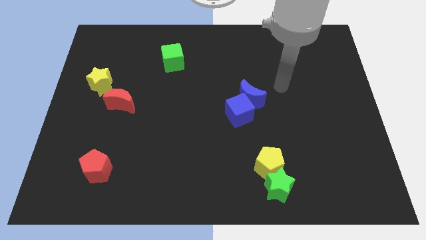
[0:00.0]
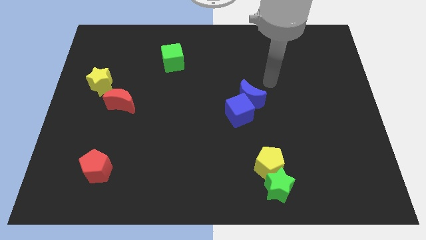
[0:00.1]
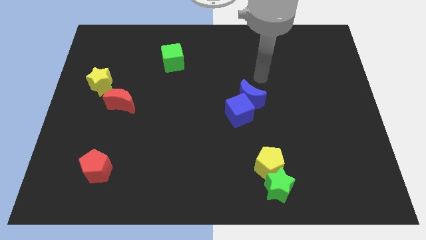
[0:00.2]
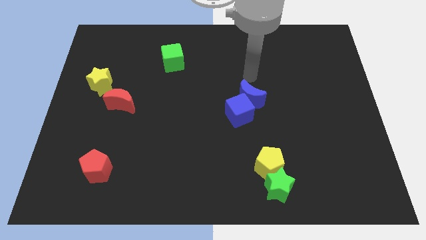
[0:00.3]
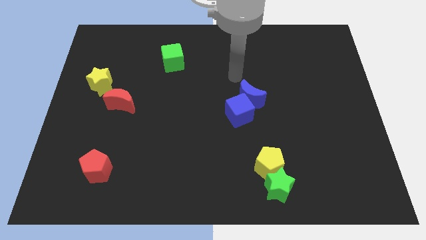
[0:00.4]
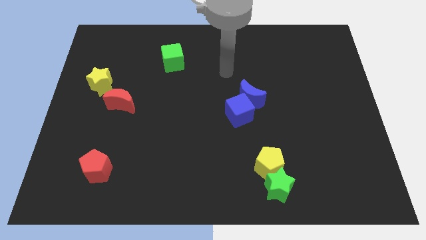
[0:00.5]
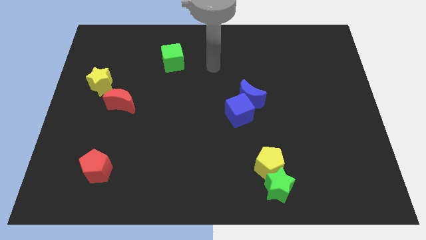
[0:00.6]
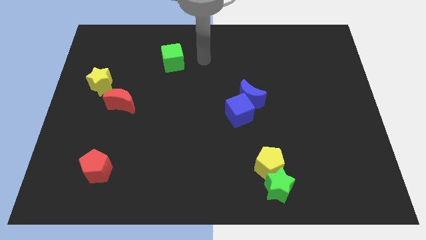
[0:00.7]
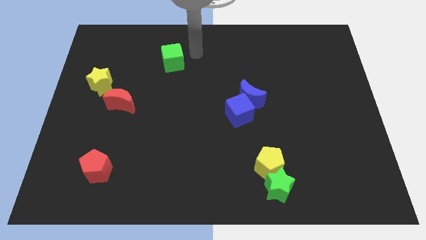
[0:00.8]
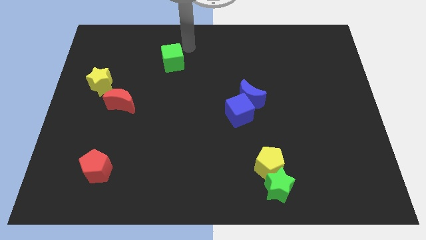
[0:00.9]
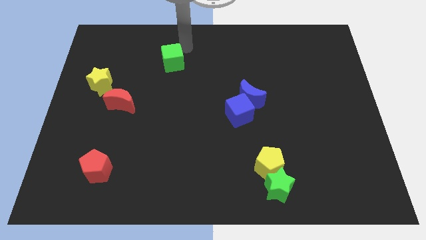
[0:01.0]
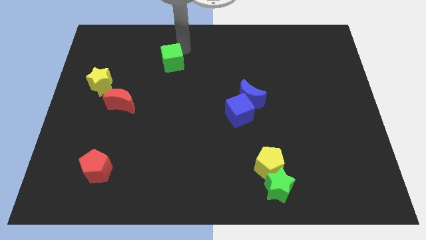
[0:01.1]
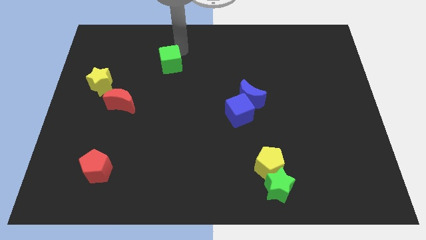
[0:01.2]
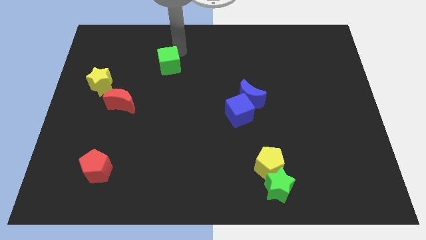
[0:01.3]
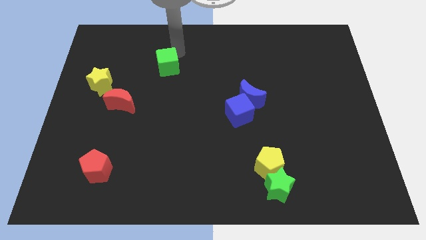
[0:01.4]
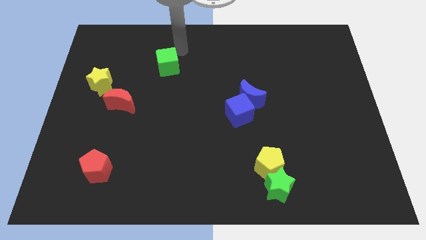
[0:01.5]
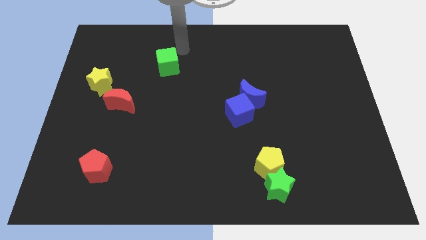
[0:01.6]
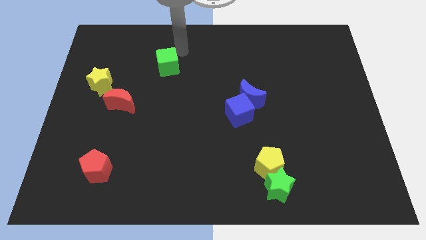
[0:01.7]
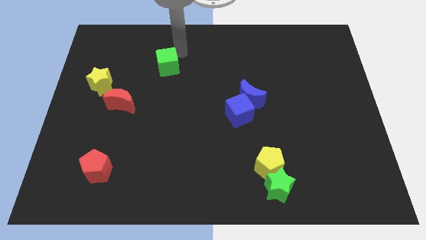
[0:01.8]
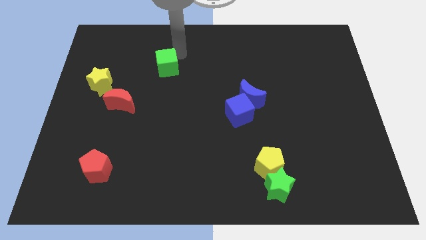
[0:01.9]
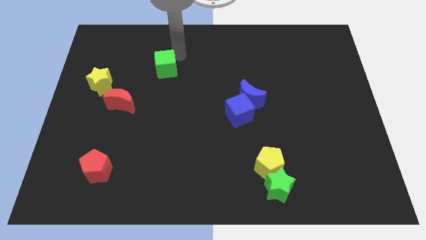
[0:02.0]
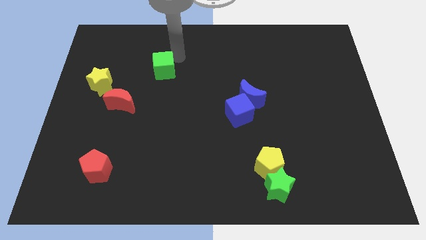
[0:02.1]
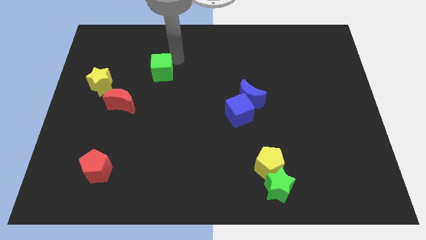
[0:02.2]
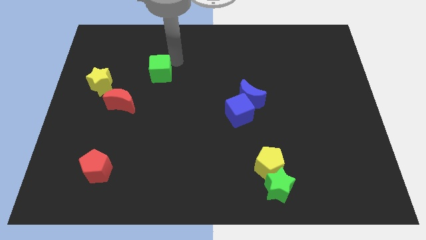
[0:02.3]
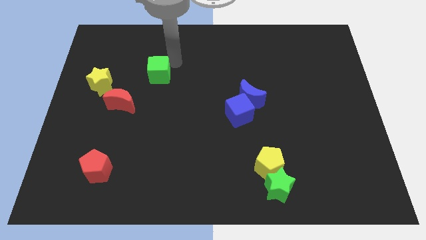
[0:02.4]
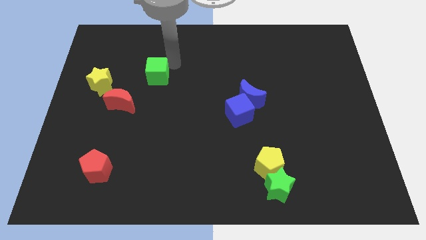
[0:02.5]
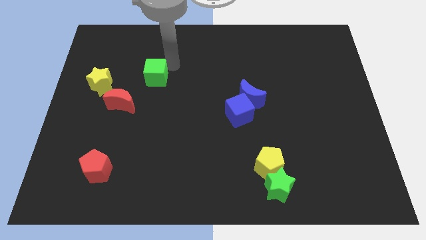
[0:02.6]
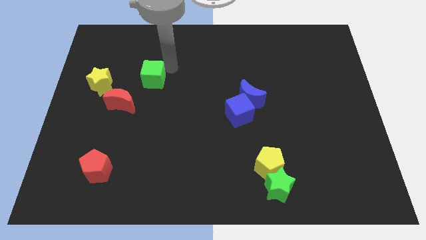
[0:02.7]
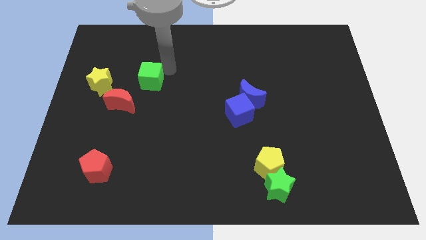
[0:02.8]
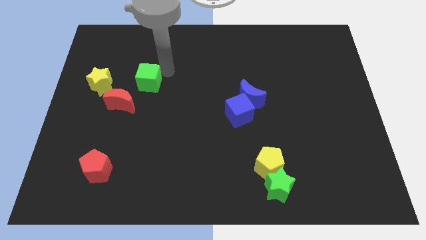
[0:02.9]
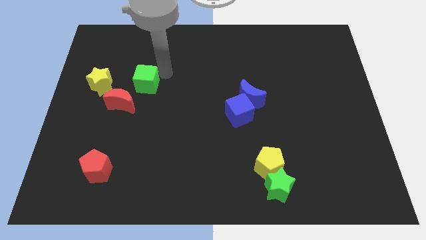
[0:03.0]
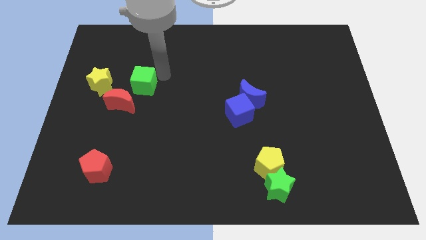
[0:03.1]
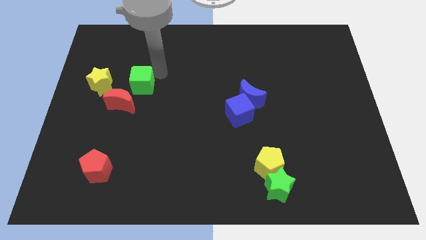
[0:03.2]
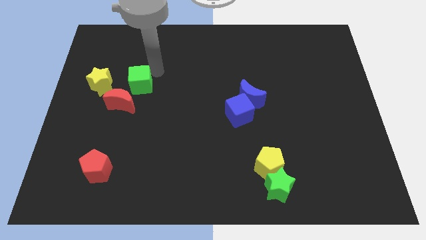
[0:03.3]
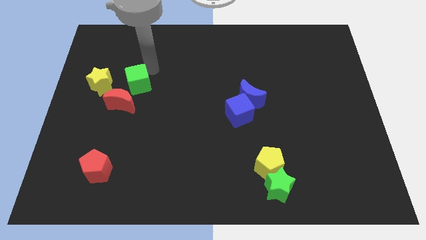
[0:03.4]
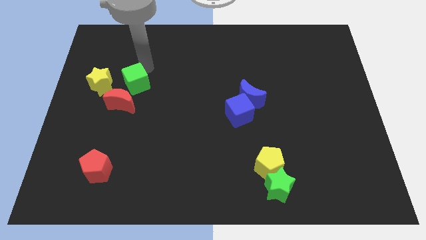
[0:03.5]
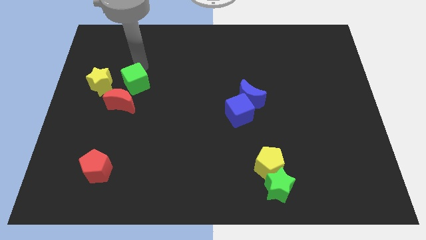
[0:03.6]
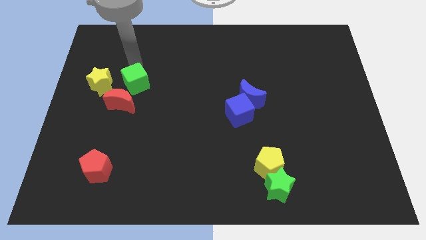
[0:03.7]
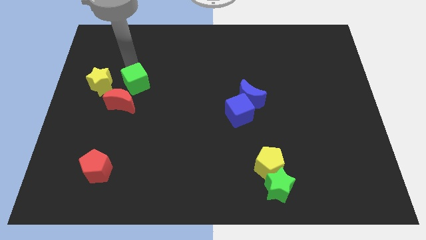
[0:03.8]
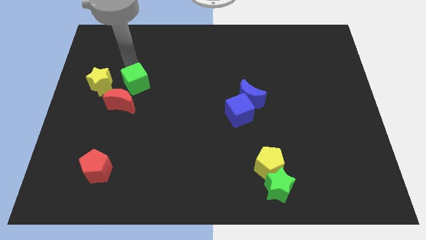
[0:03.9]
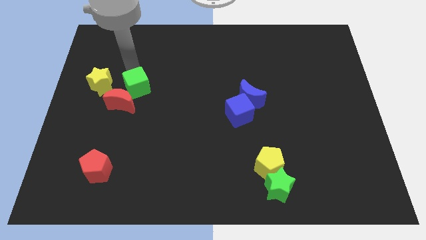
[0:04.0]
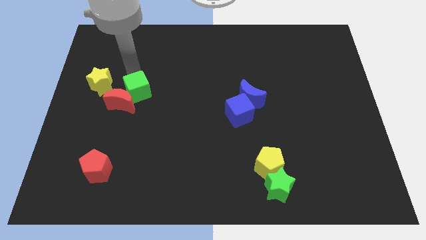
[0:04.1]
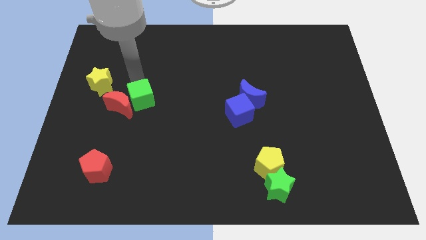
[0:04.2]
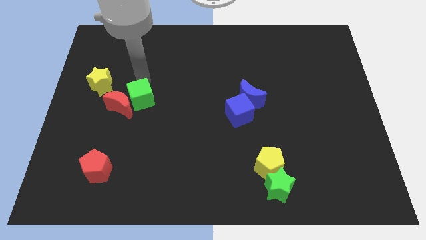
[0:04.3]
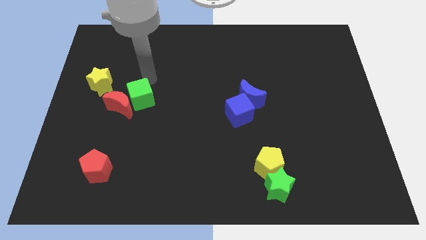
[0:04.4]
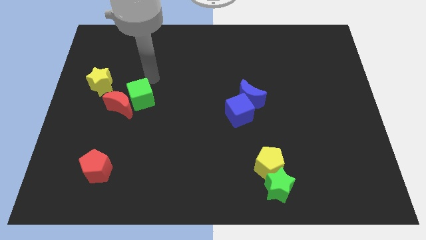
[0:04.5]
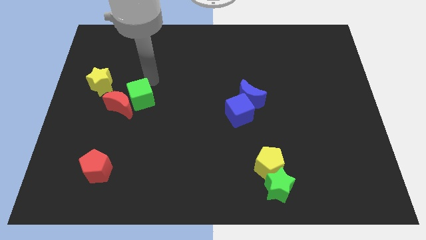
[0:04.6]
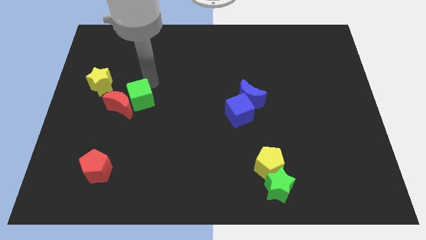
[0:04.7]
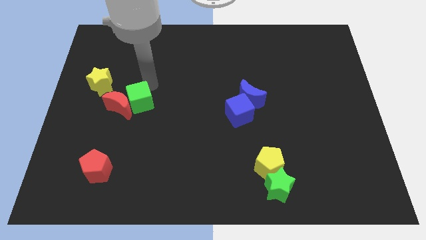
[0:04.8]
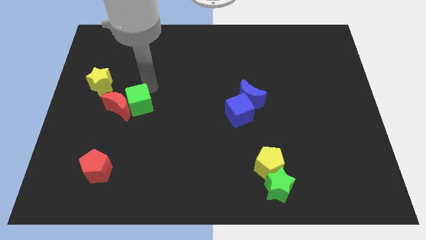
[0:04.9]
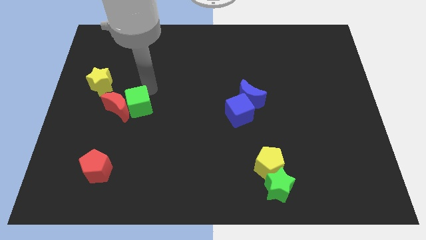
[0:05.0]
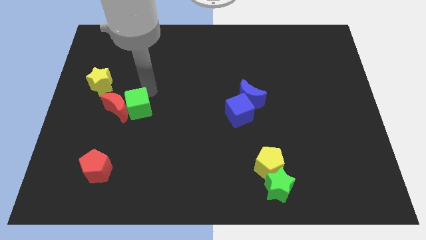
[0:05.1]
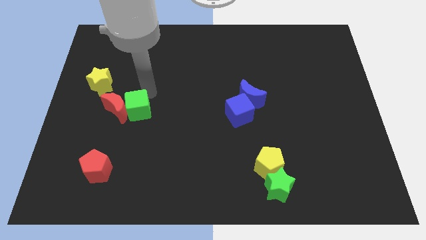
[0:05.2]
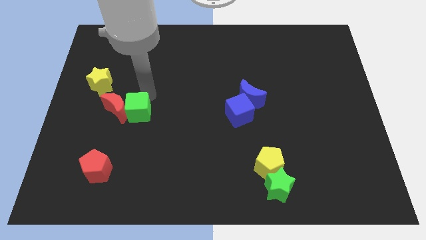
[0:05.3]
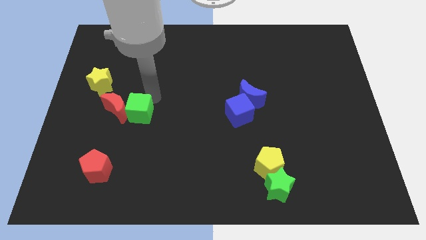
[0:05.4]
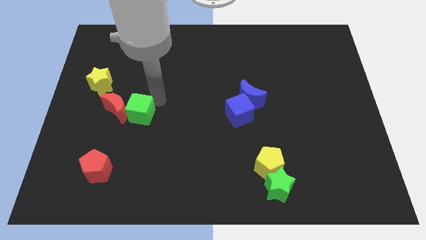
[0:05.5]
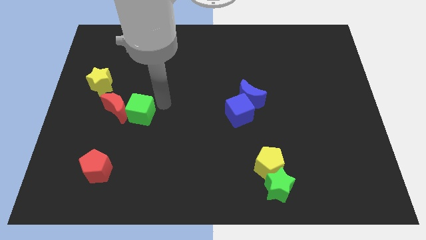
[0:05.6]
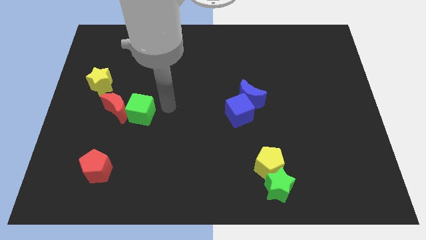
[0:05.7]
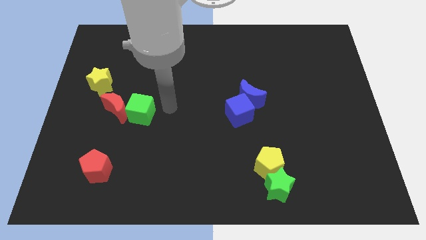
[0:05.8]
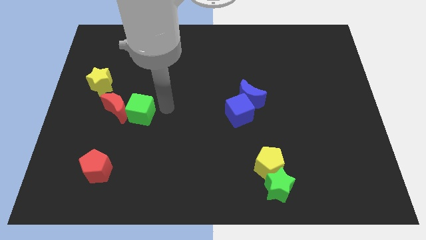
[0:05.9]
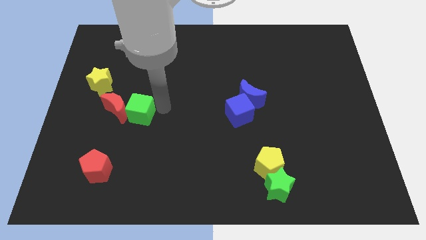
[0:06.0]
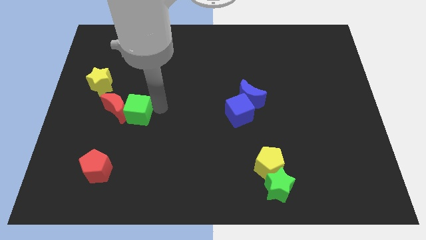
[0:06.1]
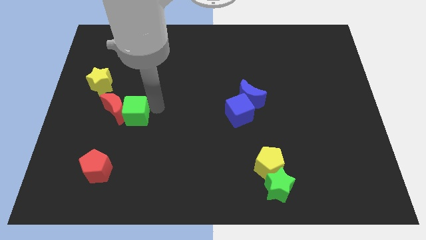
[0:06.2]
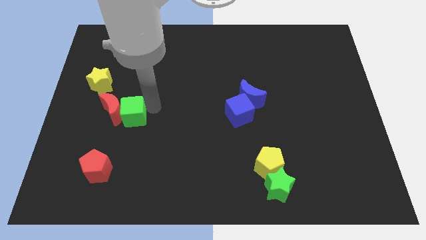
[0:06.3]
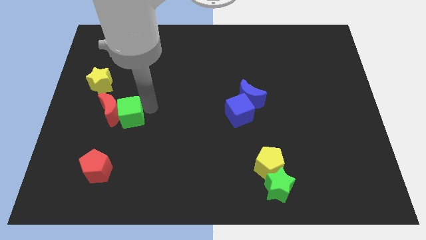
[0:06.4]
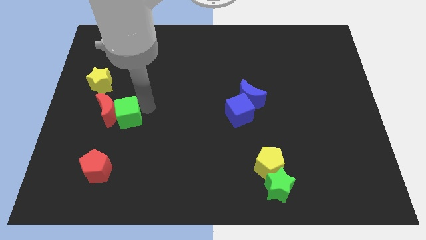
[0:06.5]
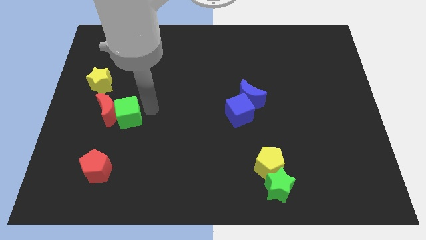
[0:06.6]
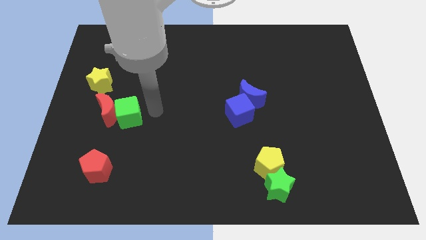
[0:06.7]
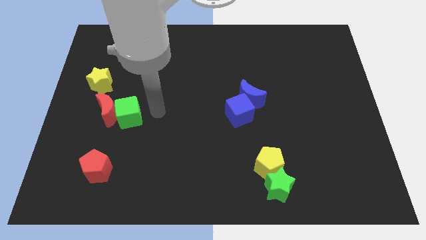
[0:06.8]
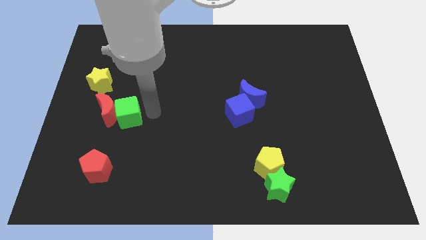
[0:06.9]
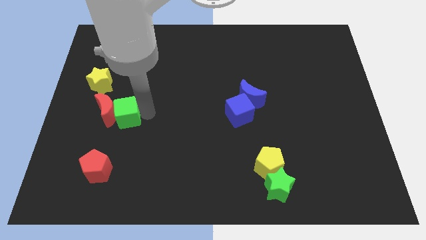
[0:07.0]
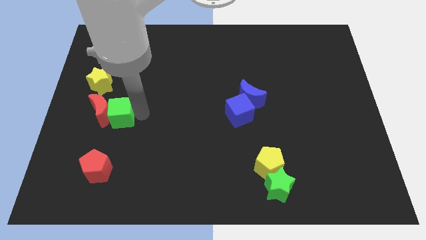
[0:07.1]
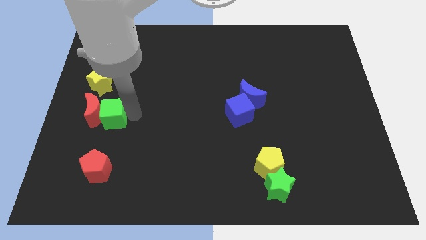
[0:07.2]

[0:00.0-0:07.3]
slide the green cube below the yellow star

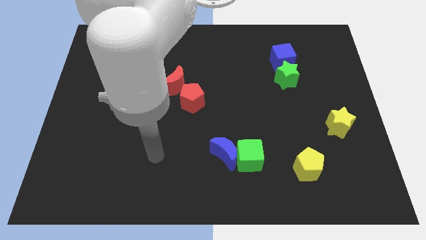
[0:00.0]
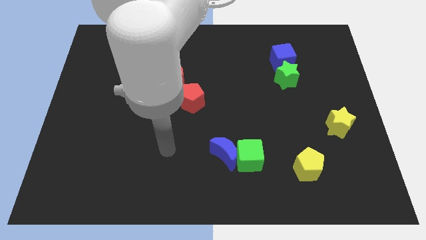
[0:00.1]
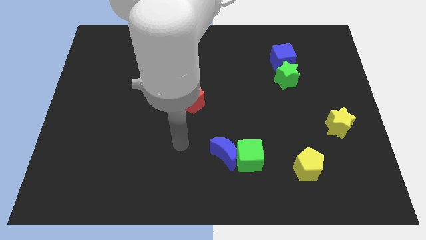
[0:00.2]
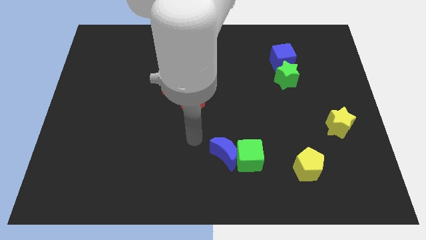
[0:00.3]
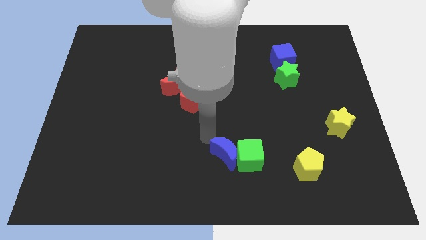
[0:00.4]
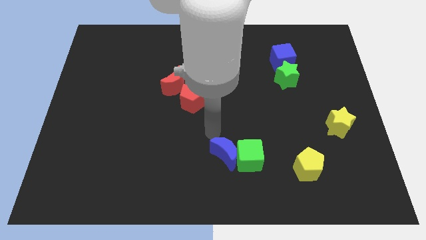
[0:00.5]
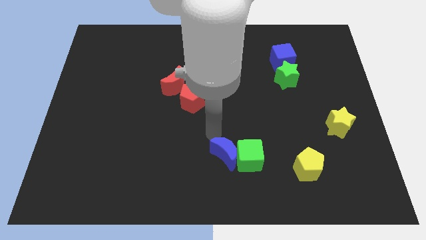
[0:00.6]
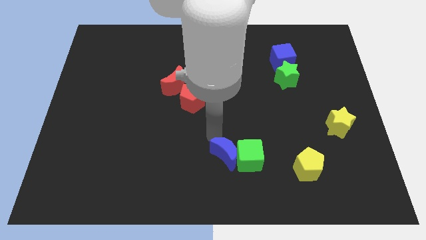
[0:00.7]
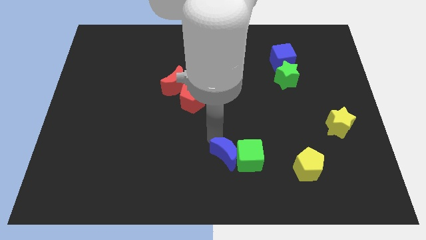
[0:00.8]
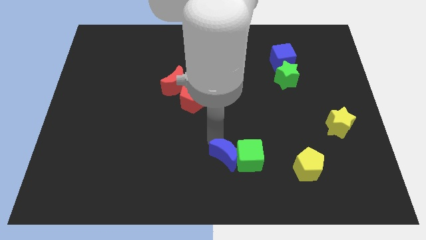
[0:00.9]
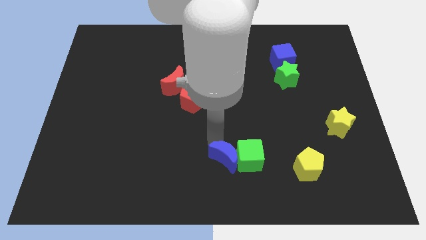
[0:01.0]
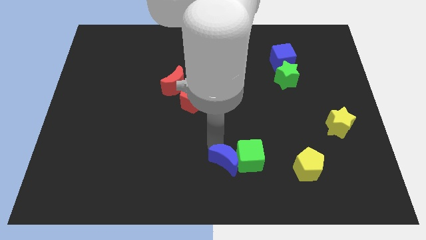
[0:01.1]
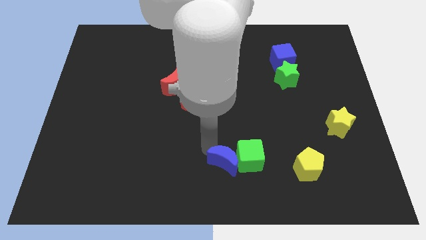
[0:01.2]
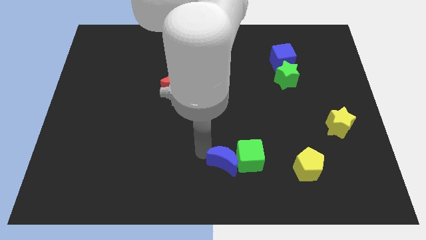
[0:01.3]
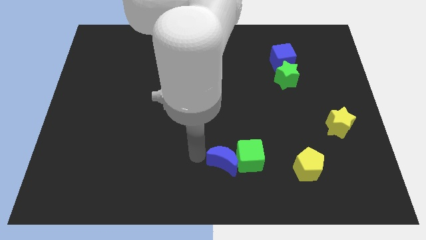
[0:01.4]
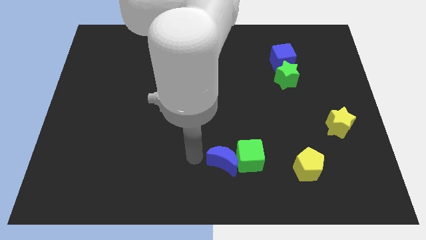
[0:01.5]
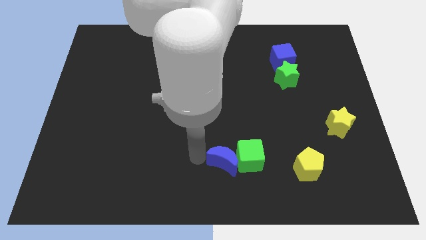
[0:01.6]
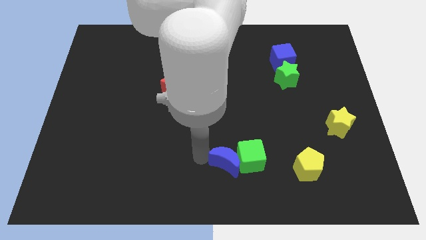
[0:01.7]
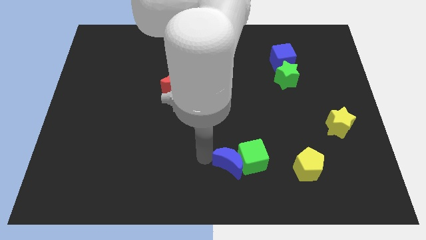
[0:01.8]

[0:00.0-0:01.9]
move the blue moon to the left side of the yellow pentagon
